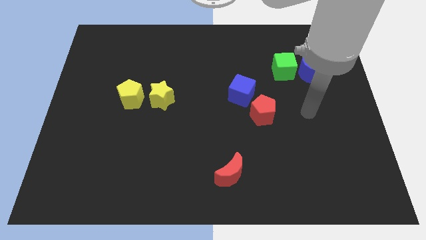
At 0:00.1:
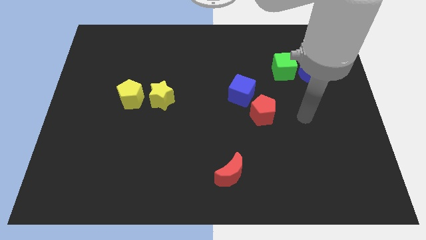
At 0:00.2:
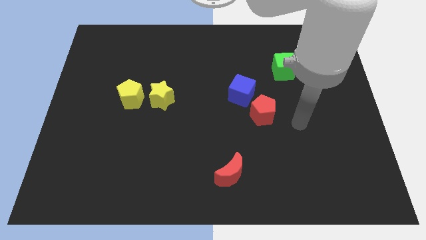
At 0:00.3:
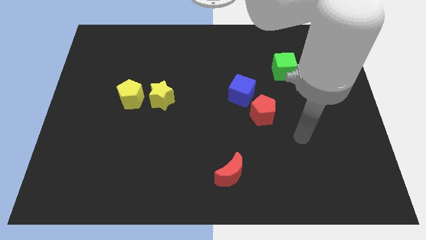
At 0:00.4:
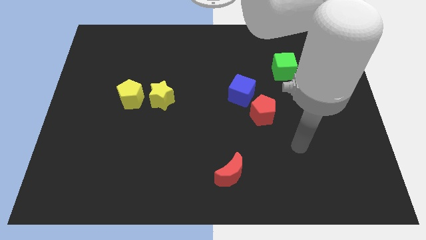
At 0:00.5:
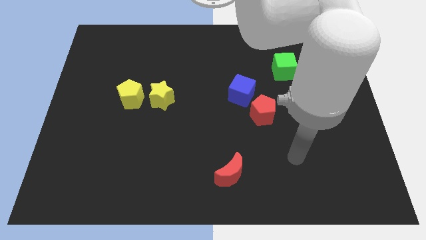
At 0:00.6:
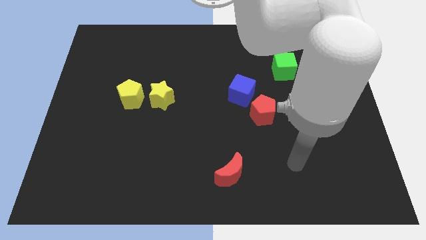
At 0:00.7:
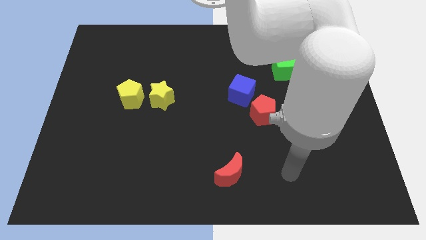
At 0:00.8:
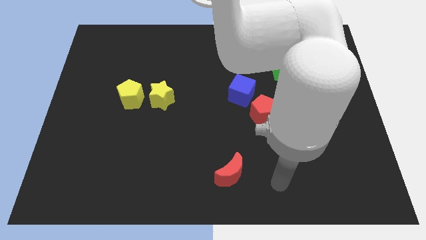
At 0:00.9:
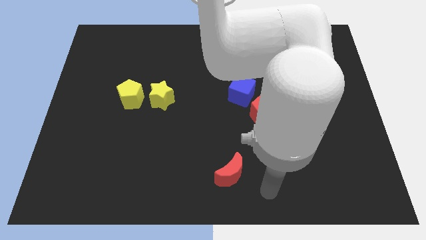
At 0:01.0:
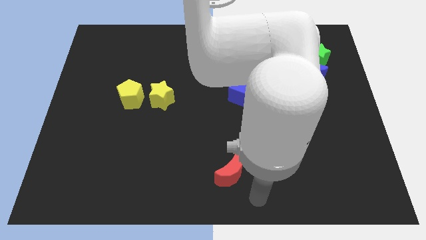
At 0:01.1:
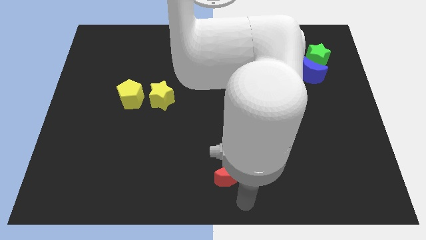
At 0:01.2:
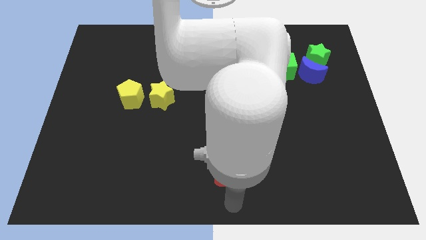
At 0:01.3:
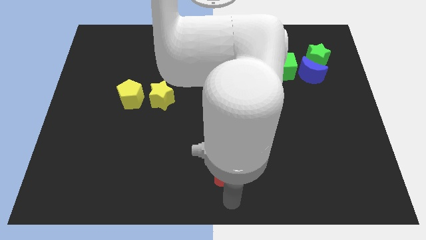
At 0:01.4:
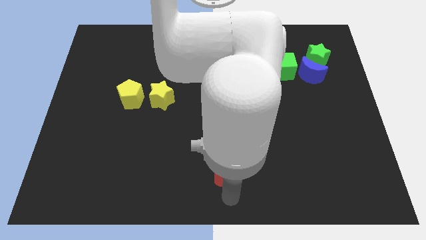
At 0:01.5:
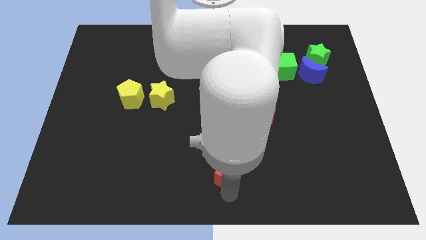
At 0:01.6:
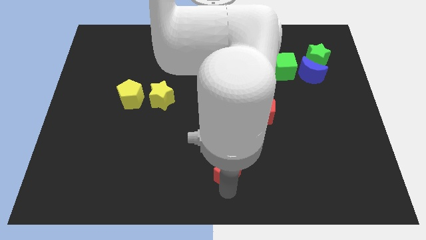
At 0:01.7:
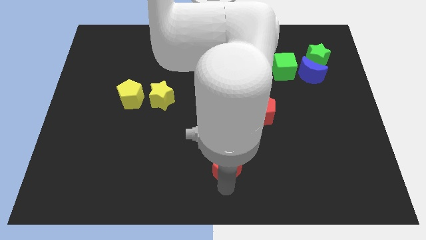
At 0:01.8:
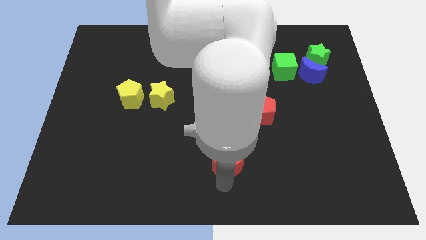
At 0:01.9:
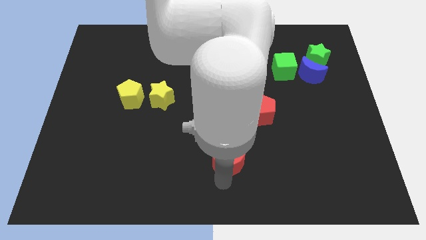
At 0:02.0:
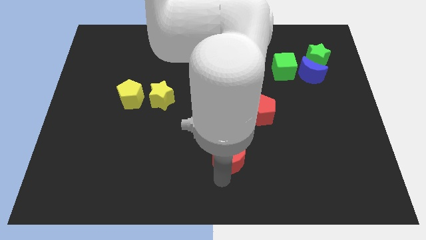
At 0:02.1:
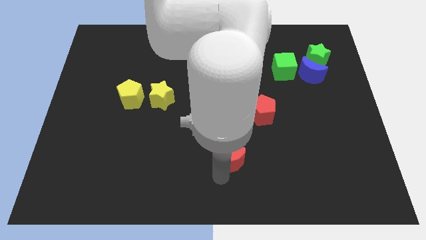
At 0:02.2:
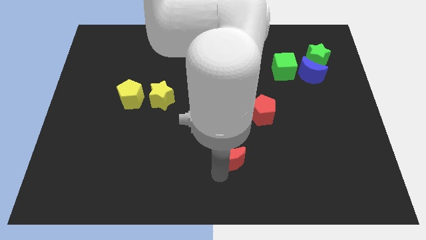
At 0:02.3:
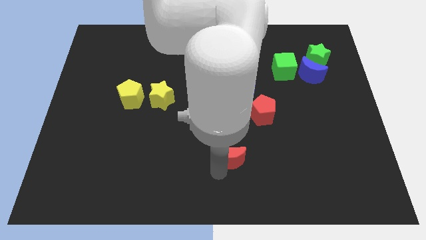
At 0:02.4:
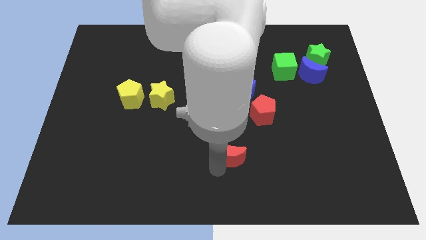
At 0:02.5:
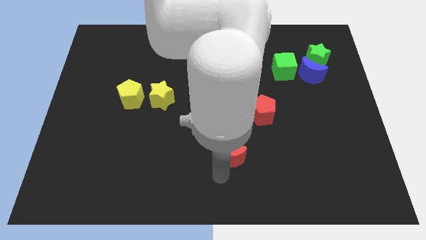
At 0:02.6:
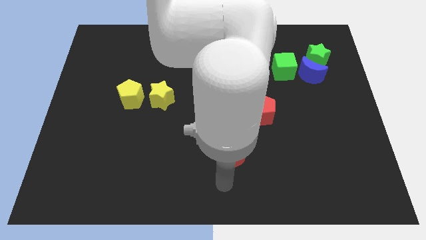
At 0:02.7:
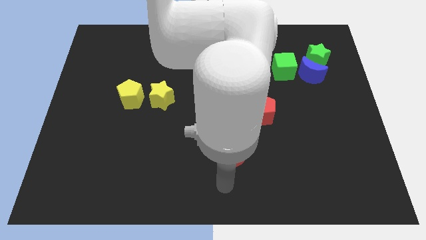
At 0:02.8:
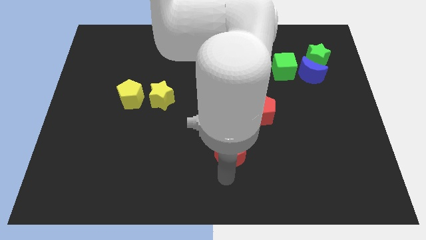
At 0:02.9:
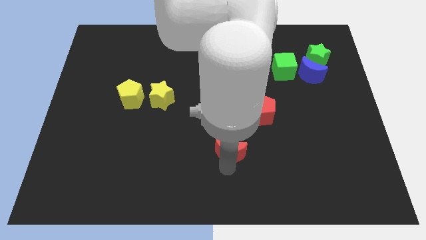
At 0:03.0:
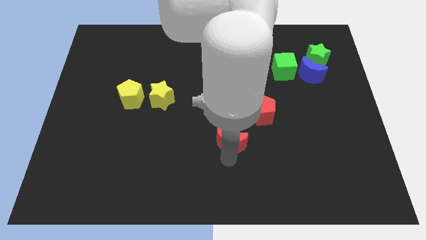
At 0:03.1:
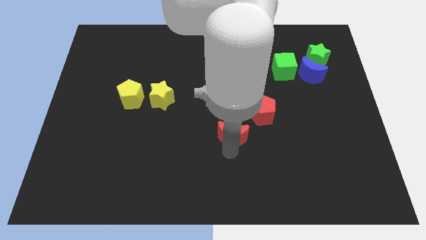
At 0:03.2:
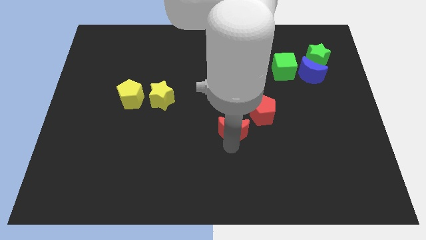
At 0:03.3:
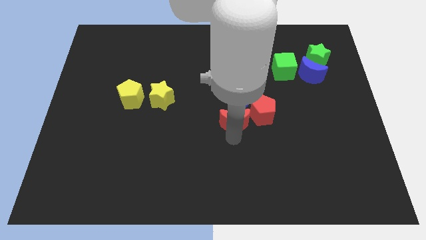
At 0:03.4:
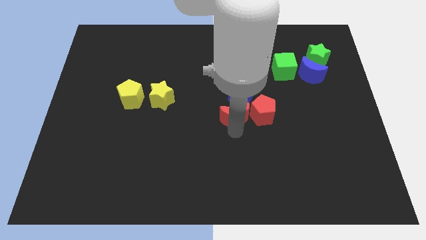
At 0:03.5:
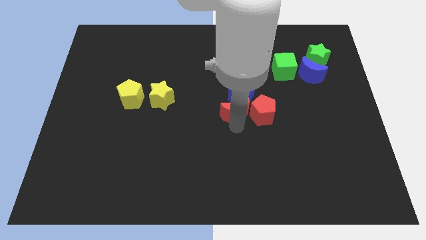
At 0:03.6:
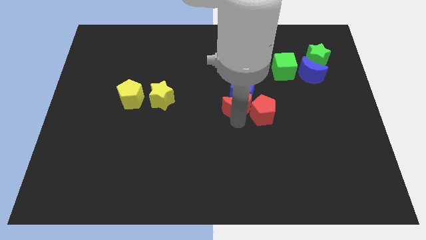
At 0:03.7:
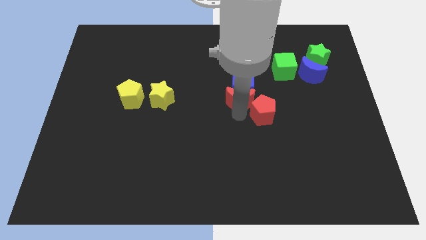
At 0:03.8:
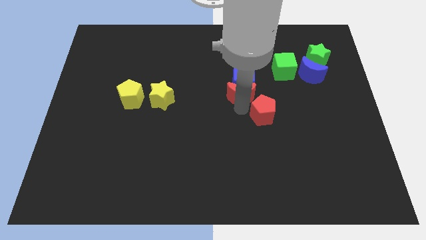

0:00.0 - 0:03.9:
push the red moon up

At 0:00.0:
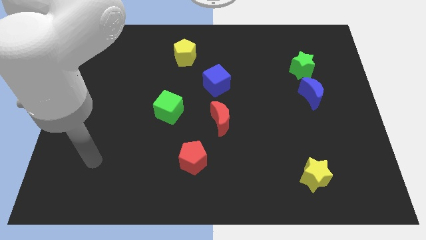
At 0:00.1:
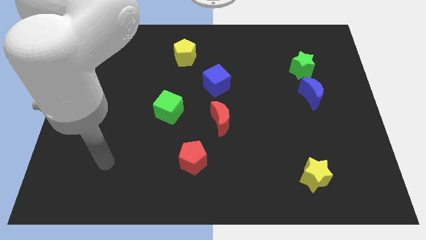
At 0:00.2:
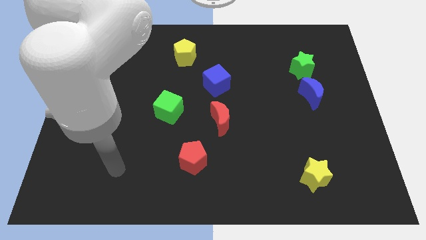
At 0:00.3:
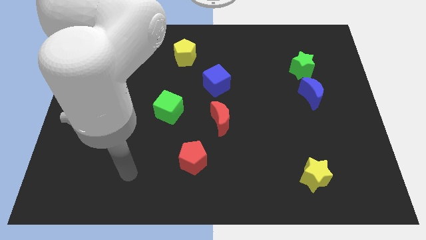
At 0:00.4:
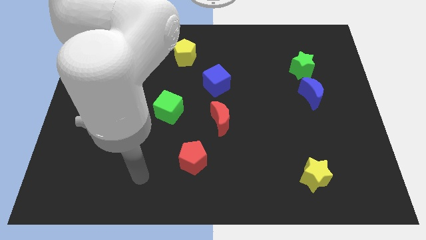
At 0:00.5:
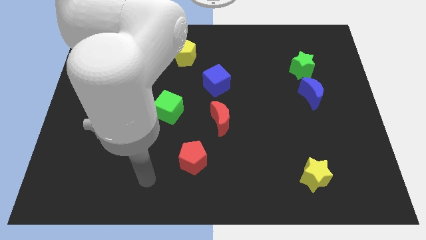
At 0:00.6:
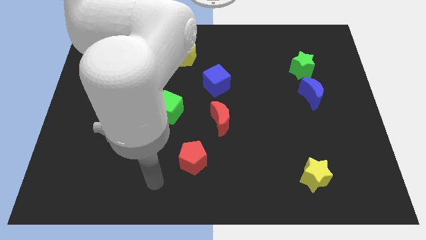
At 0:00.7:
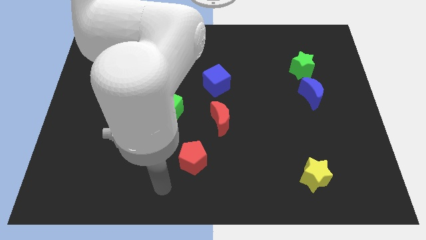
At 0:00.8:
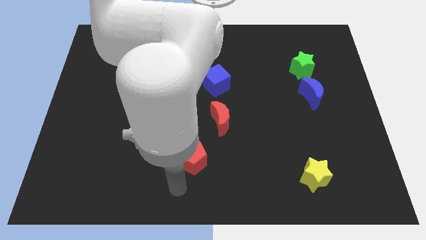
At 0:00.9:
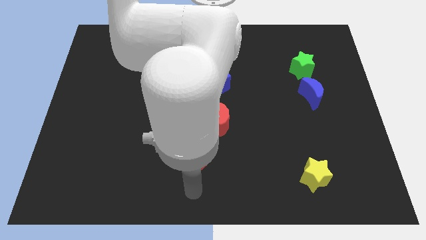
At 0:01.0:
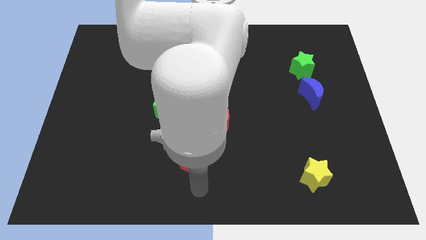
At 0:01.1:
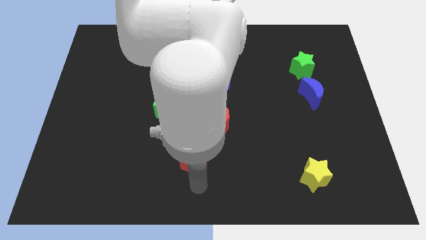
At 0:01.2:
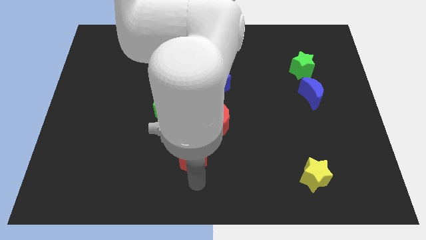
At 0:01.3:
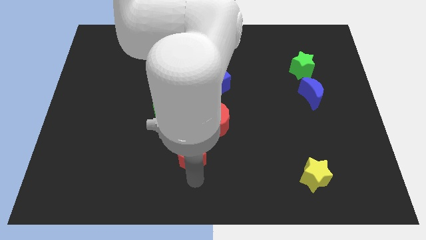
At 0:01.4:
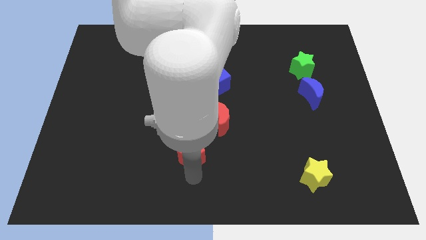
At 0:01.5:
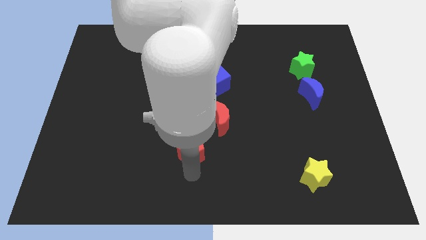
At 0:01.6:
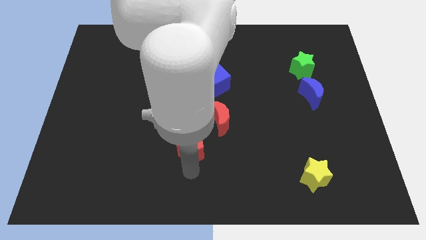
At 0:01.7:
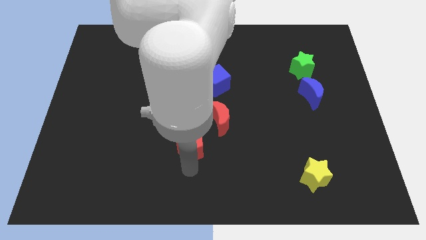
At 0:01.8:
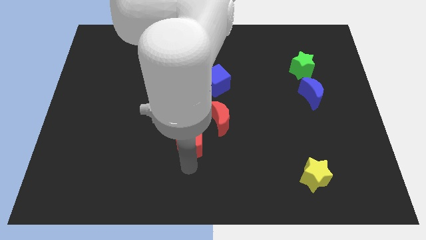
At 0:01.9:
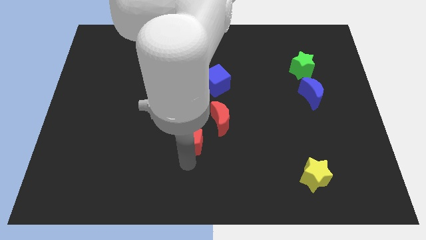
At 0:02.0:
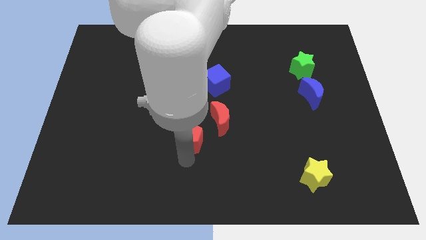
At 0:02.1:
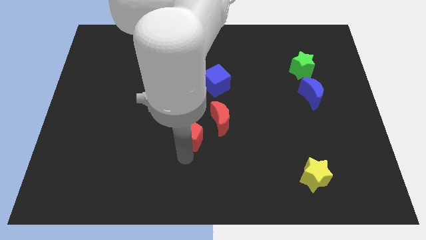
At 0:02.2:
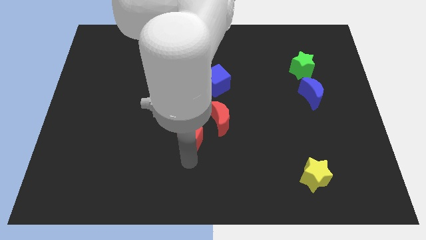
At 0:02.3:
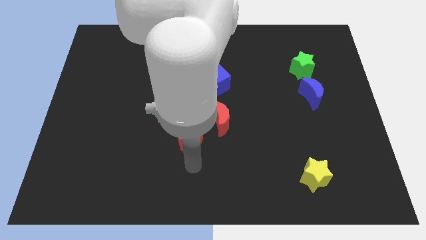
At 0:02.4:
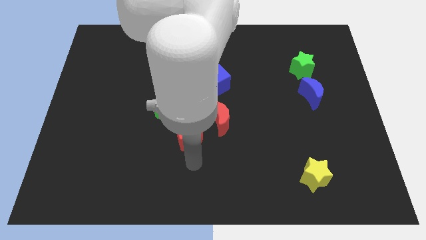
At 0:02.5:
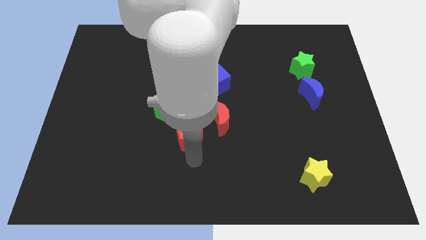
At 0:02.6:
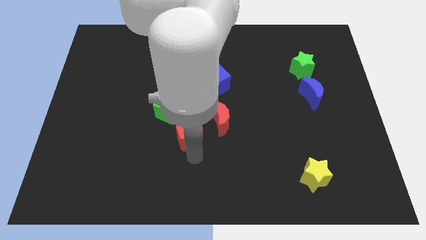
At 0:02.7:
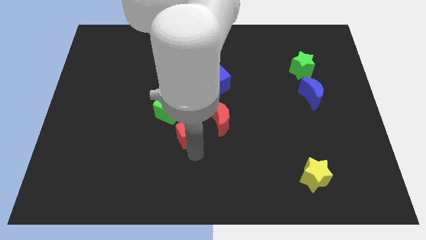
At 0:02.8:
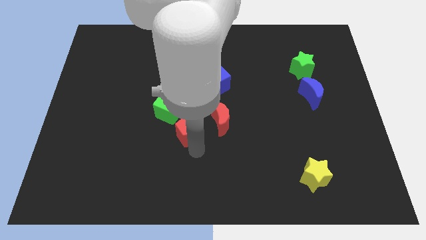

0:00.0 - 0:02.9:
push the red pentagon up slightly

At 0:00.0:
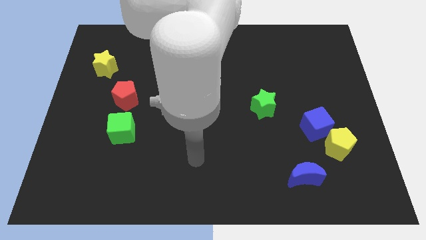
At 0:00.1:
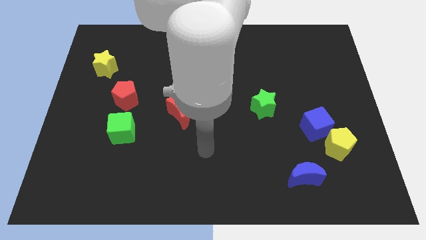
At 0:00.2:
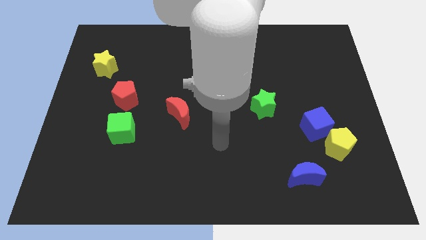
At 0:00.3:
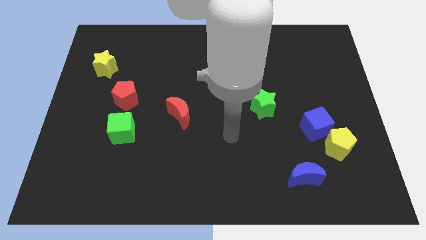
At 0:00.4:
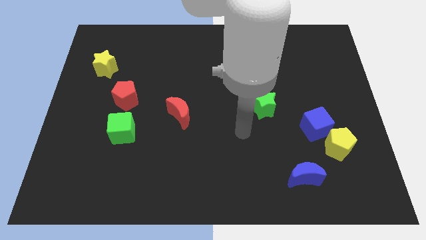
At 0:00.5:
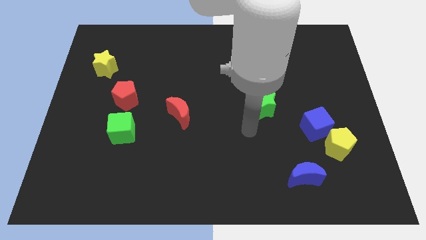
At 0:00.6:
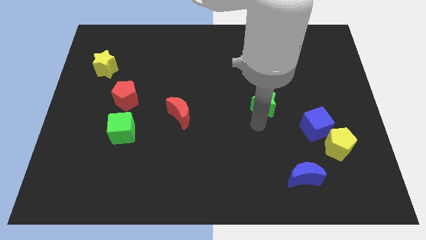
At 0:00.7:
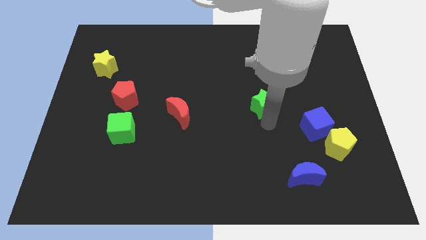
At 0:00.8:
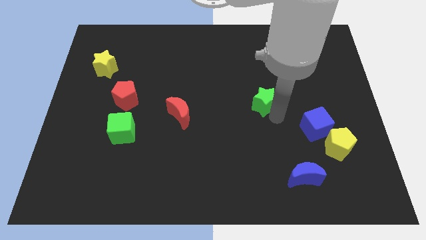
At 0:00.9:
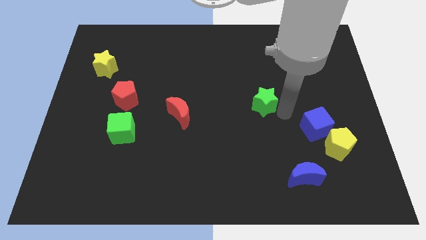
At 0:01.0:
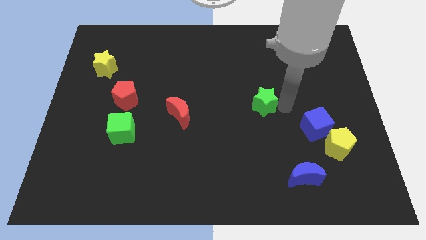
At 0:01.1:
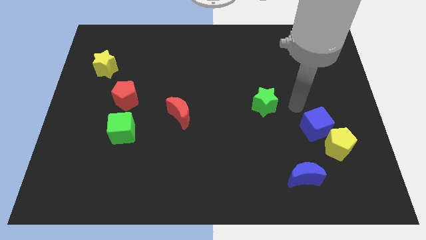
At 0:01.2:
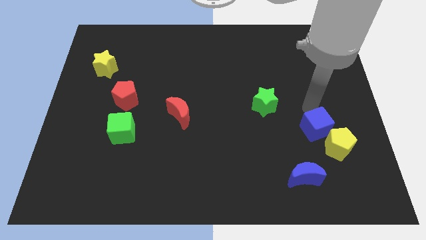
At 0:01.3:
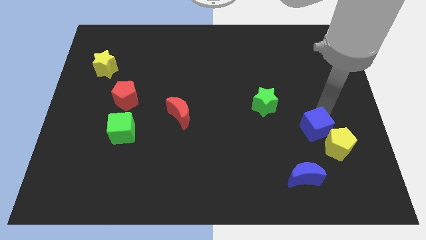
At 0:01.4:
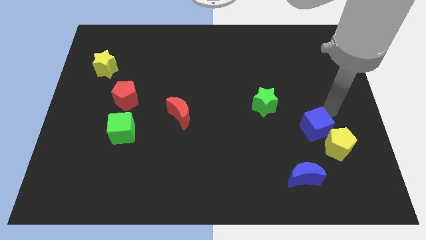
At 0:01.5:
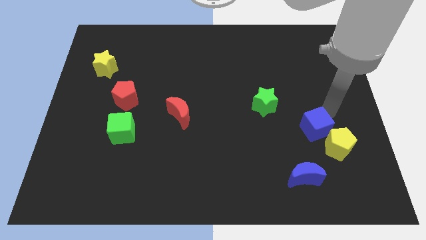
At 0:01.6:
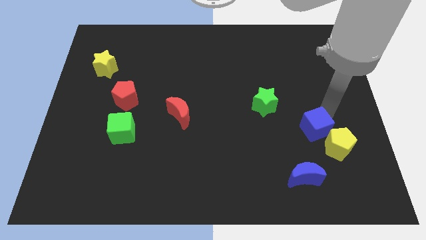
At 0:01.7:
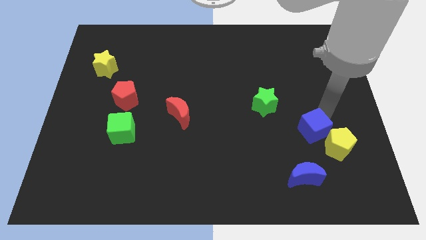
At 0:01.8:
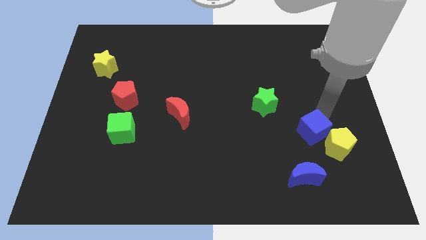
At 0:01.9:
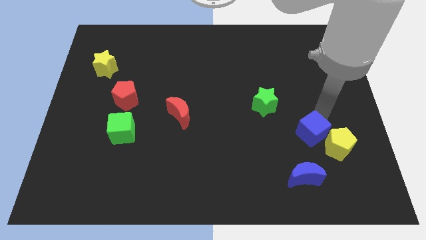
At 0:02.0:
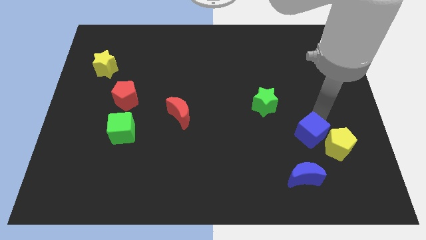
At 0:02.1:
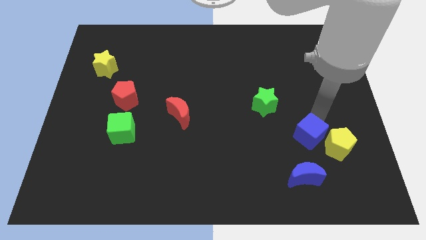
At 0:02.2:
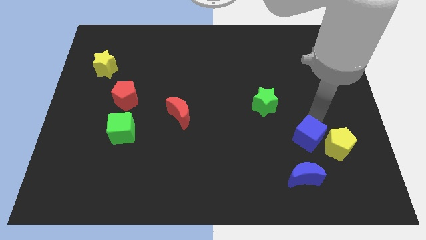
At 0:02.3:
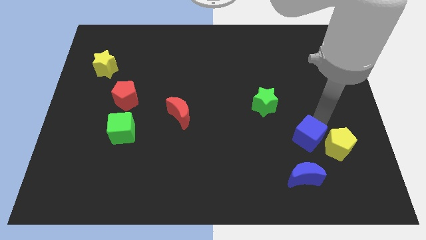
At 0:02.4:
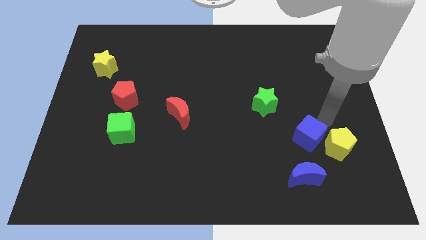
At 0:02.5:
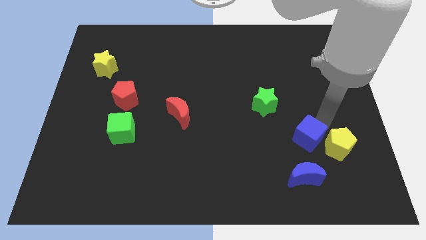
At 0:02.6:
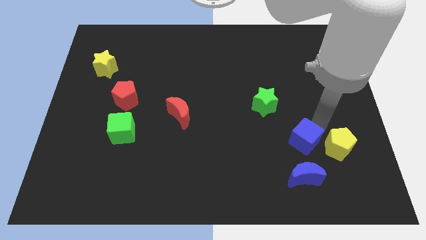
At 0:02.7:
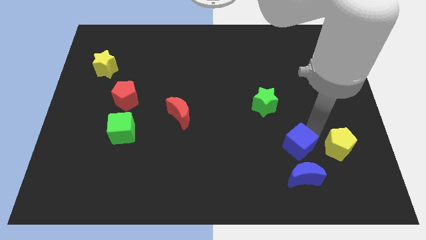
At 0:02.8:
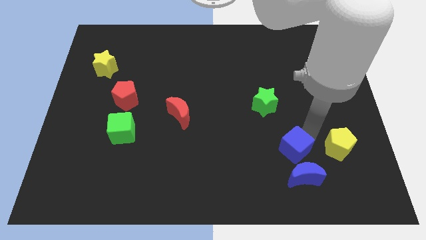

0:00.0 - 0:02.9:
slide the blue cube a little bit downwards and to the left
